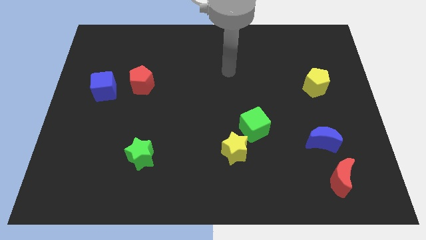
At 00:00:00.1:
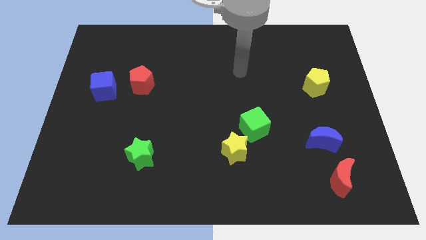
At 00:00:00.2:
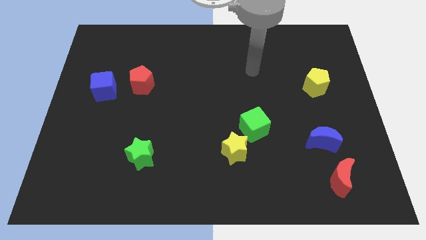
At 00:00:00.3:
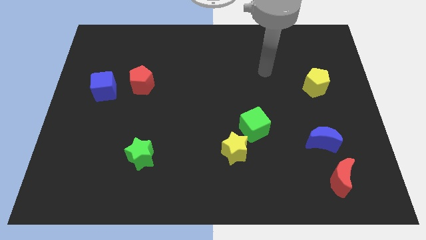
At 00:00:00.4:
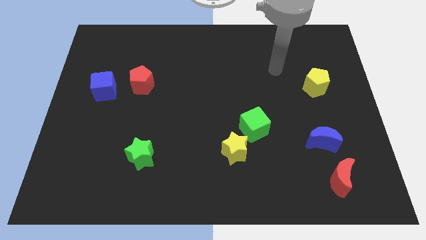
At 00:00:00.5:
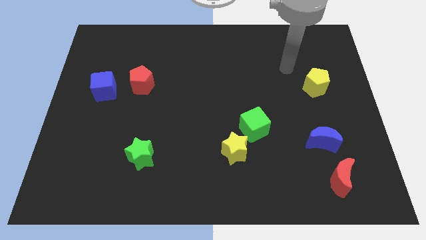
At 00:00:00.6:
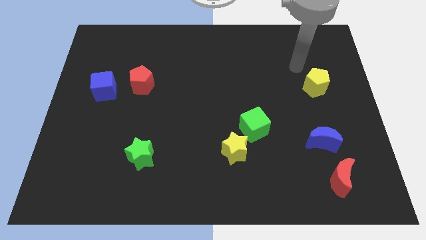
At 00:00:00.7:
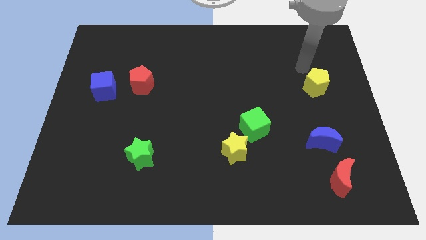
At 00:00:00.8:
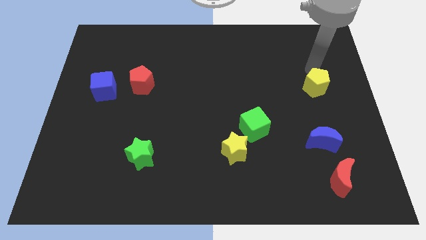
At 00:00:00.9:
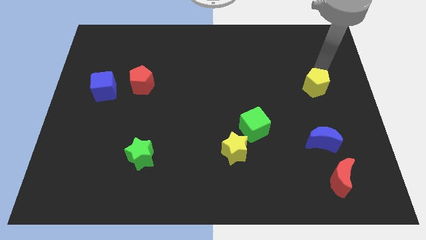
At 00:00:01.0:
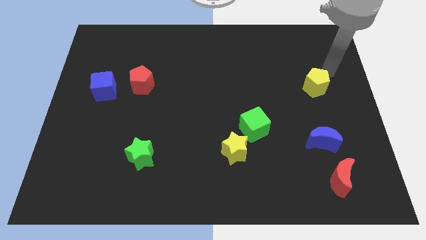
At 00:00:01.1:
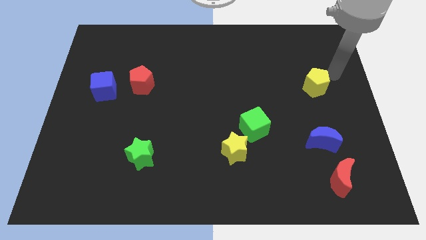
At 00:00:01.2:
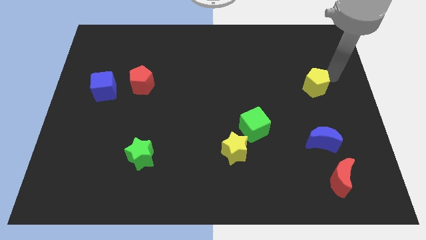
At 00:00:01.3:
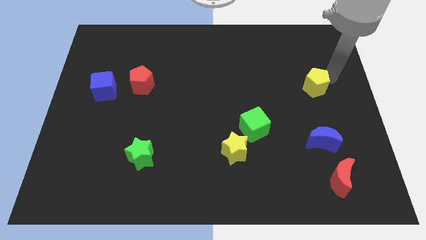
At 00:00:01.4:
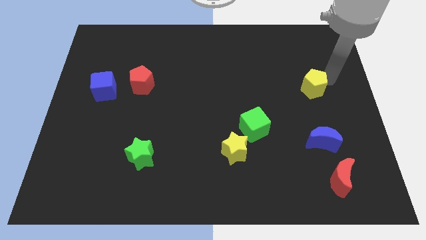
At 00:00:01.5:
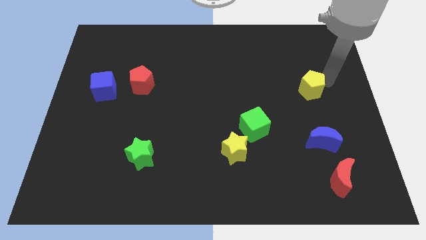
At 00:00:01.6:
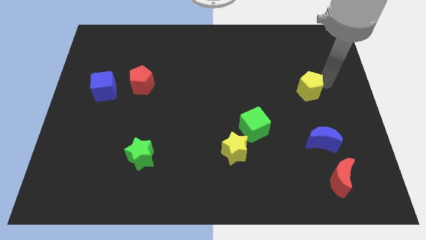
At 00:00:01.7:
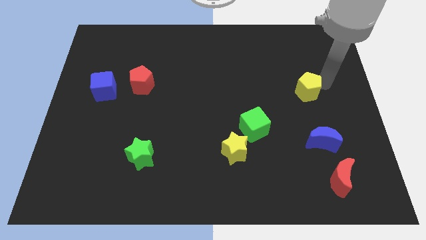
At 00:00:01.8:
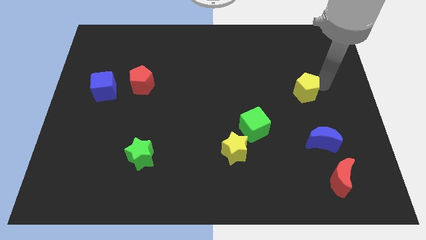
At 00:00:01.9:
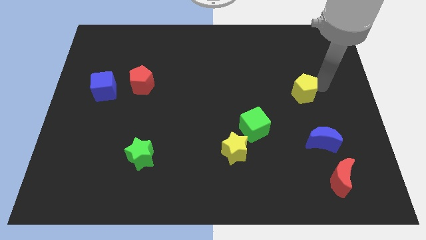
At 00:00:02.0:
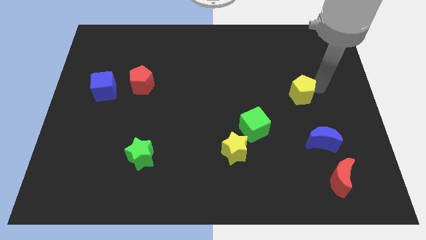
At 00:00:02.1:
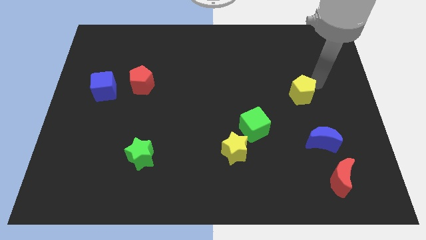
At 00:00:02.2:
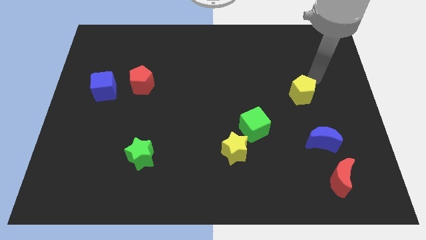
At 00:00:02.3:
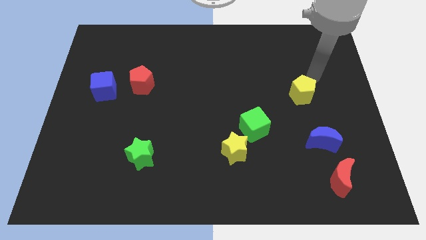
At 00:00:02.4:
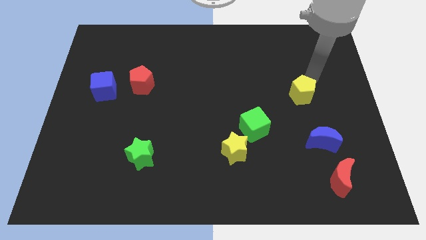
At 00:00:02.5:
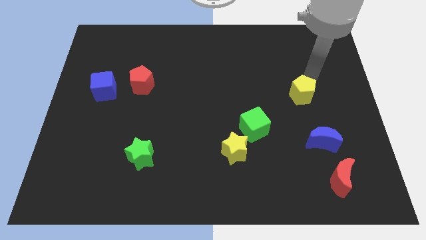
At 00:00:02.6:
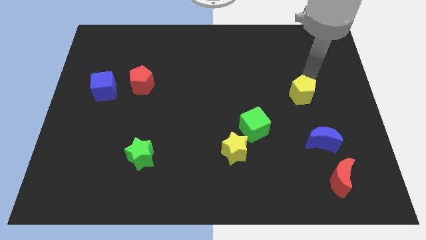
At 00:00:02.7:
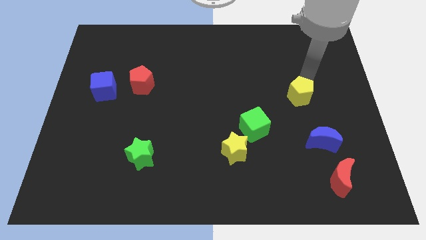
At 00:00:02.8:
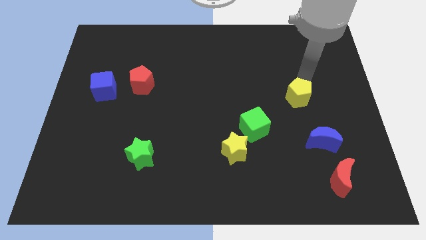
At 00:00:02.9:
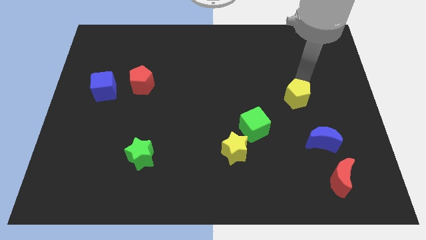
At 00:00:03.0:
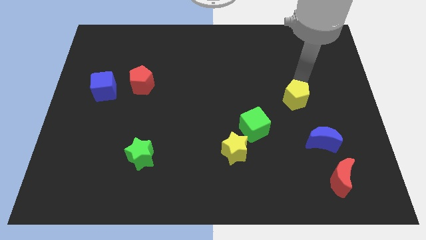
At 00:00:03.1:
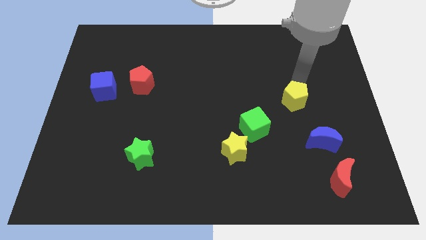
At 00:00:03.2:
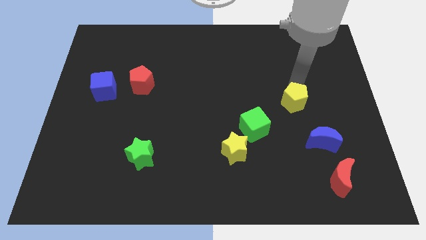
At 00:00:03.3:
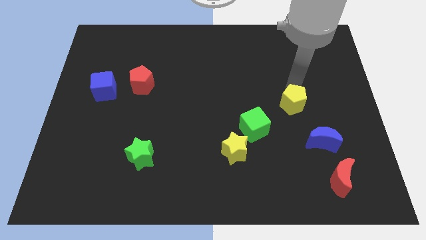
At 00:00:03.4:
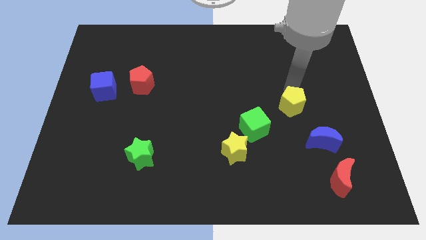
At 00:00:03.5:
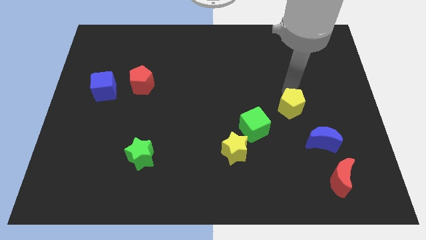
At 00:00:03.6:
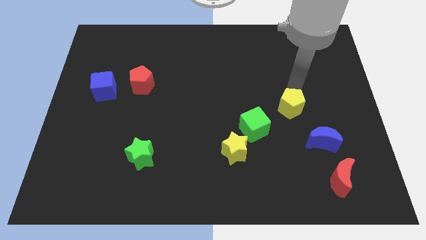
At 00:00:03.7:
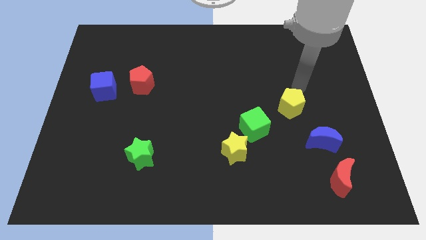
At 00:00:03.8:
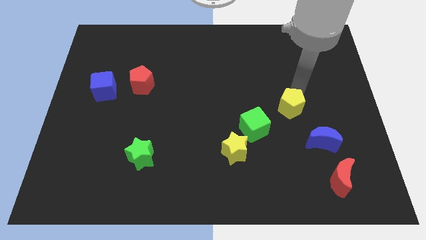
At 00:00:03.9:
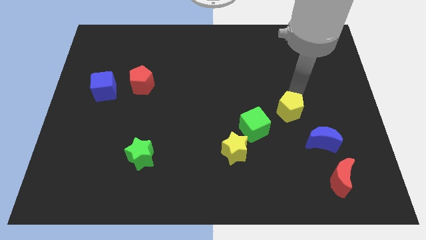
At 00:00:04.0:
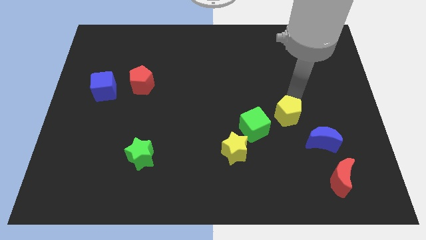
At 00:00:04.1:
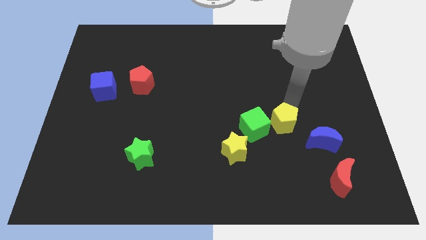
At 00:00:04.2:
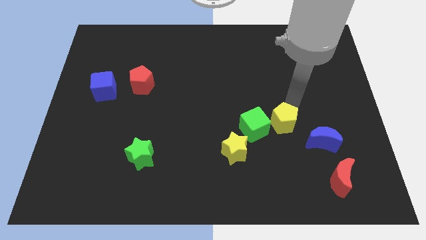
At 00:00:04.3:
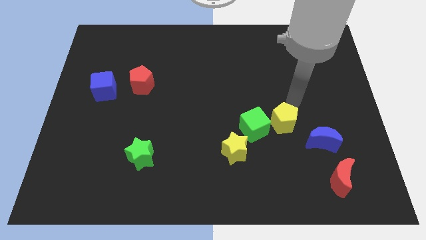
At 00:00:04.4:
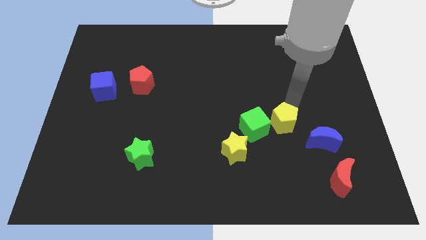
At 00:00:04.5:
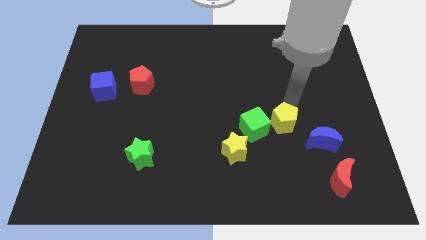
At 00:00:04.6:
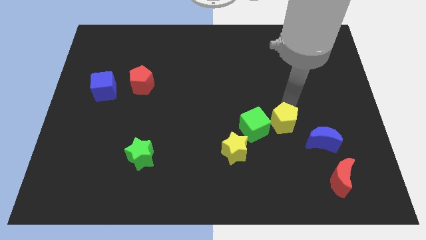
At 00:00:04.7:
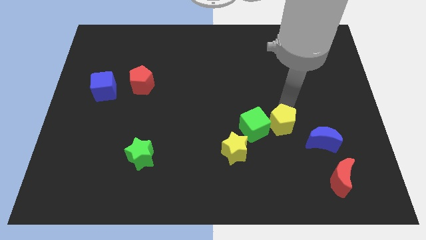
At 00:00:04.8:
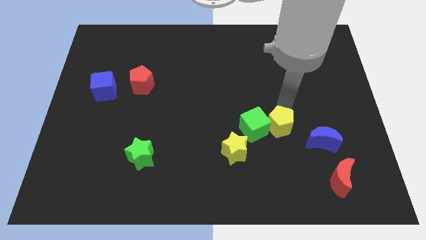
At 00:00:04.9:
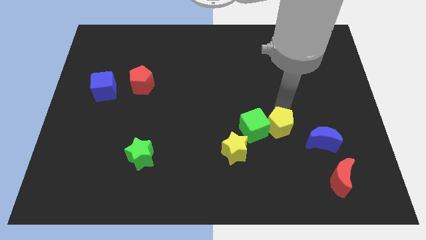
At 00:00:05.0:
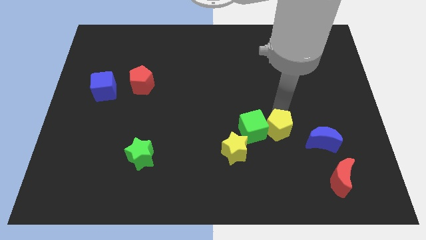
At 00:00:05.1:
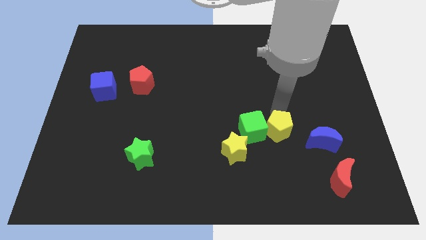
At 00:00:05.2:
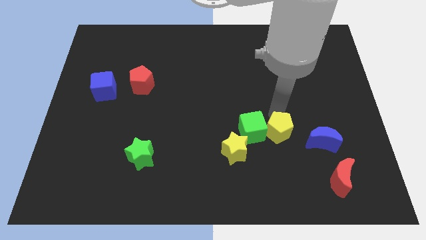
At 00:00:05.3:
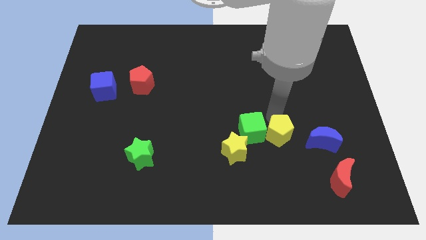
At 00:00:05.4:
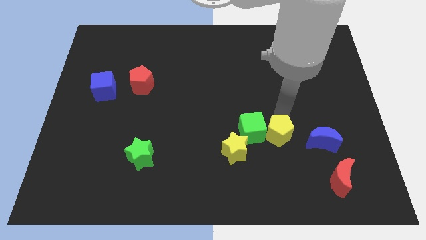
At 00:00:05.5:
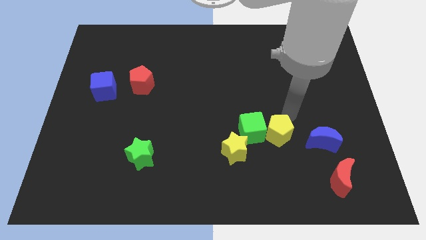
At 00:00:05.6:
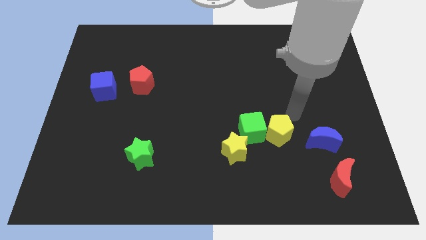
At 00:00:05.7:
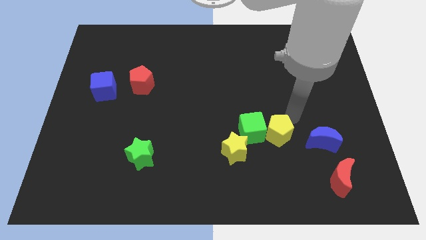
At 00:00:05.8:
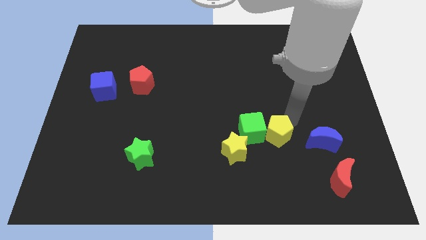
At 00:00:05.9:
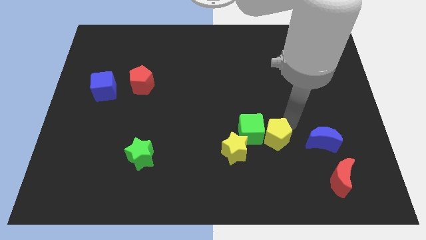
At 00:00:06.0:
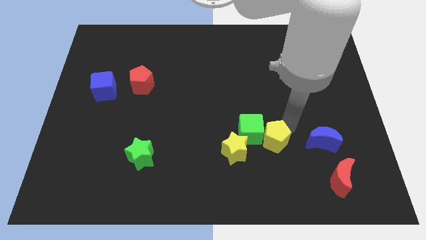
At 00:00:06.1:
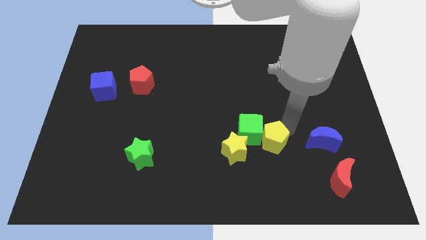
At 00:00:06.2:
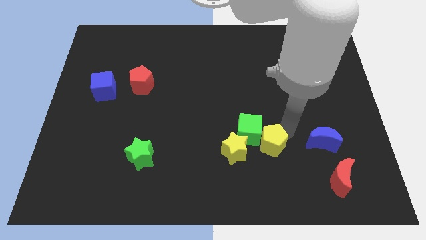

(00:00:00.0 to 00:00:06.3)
move the yellow pentagon down and then left

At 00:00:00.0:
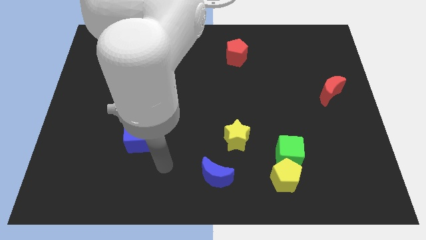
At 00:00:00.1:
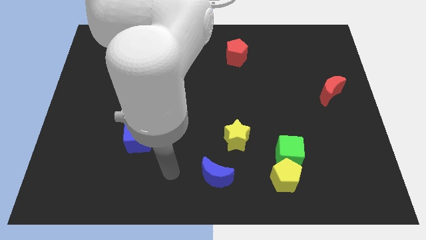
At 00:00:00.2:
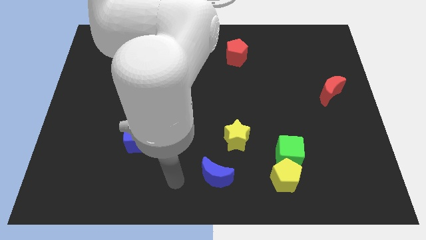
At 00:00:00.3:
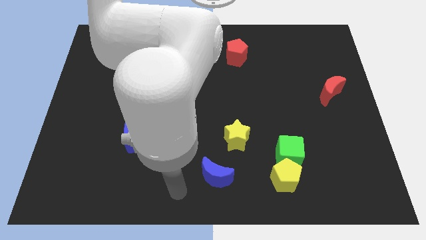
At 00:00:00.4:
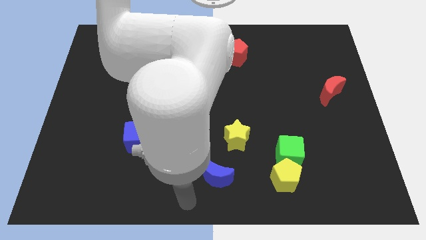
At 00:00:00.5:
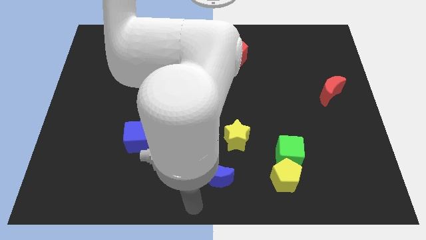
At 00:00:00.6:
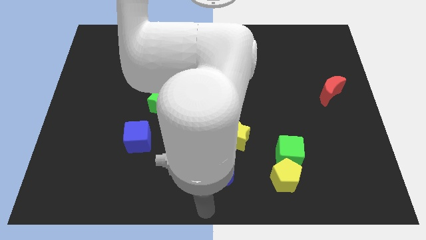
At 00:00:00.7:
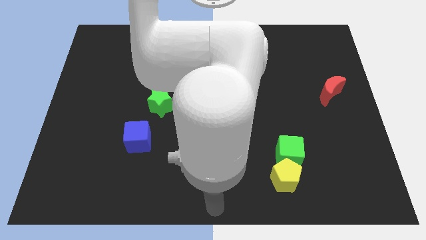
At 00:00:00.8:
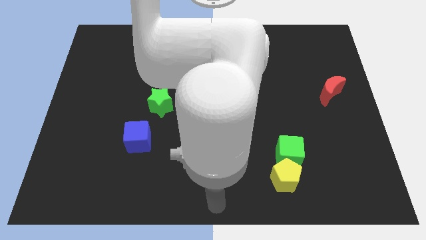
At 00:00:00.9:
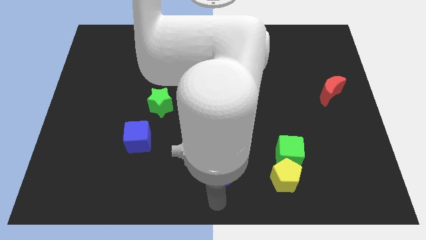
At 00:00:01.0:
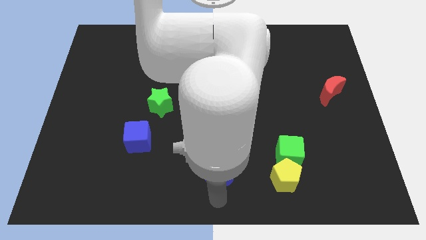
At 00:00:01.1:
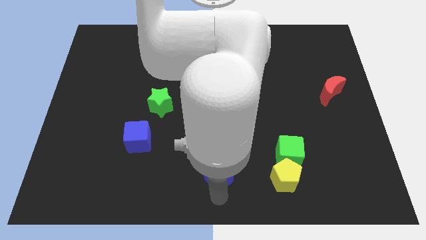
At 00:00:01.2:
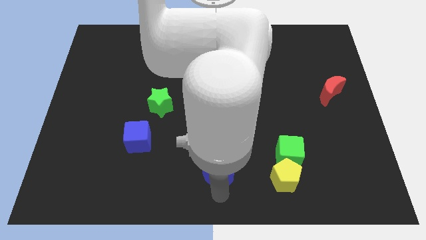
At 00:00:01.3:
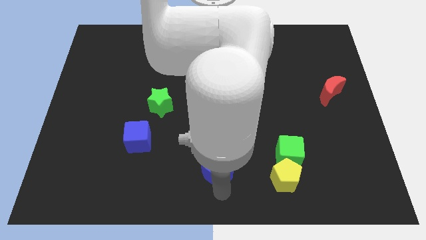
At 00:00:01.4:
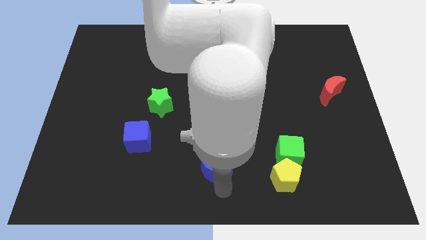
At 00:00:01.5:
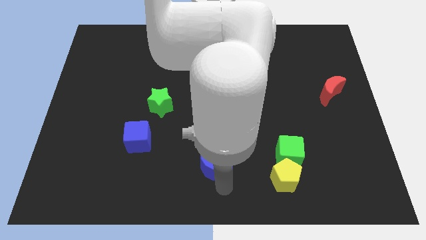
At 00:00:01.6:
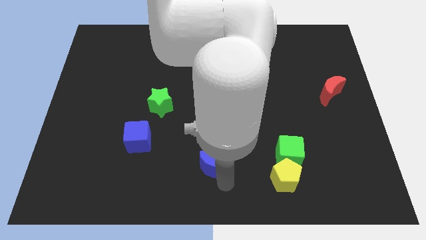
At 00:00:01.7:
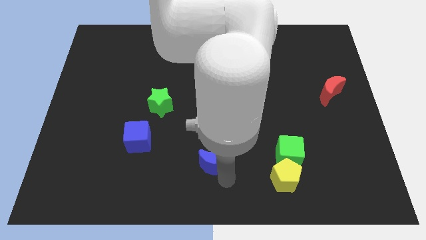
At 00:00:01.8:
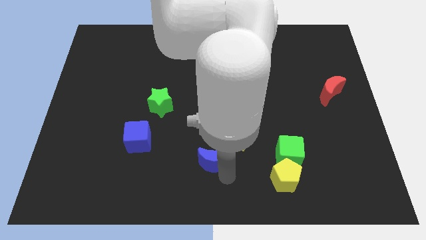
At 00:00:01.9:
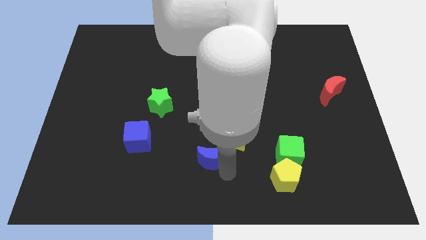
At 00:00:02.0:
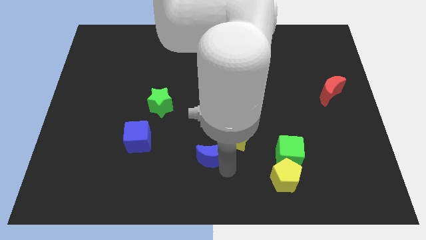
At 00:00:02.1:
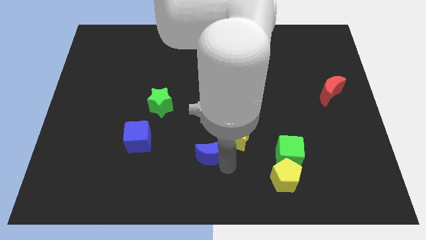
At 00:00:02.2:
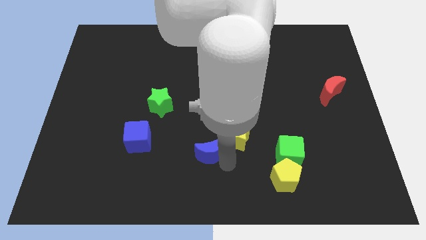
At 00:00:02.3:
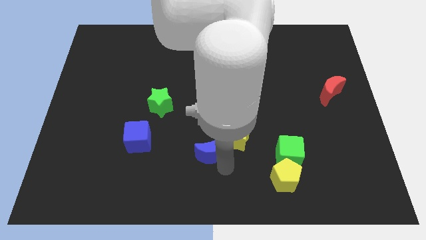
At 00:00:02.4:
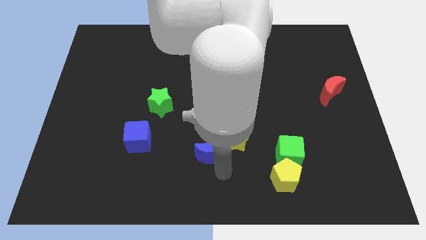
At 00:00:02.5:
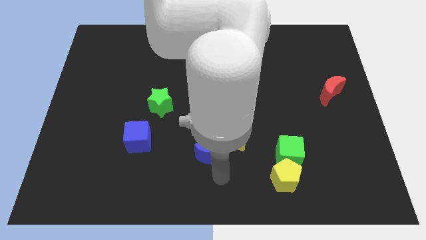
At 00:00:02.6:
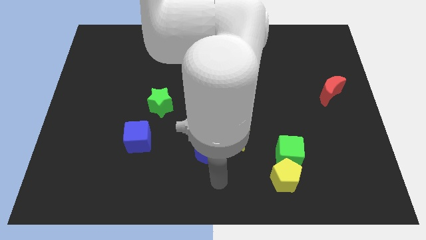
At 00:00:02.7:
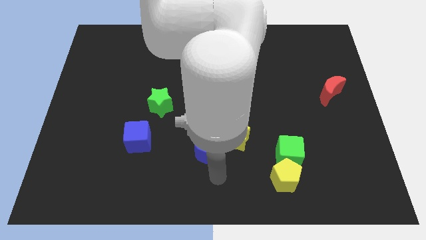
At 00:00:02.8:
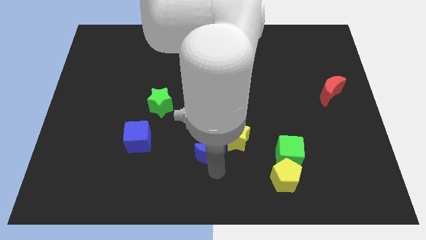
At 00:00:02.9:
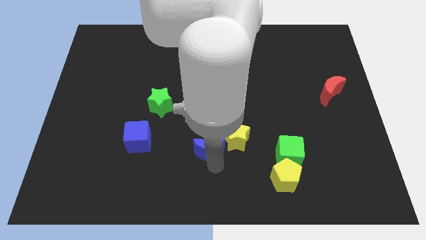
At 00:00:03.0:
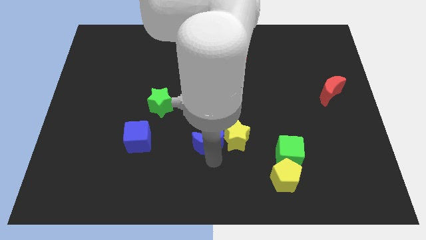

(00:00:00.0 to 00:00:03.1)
slightly push the blue moon upwards
